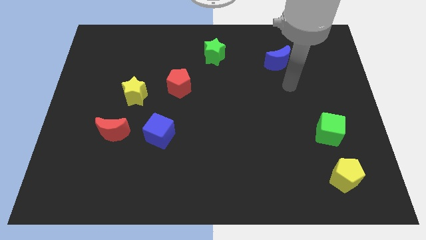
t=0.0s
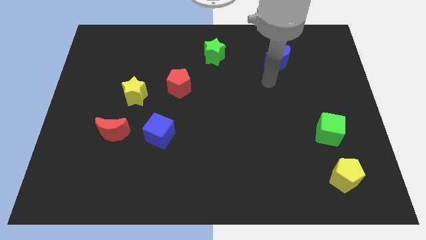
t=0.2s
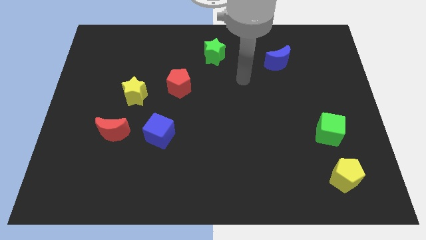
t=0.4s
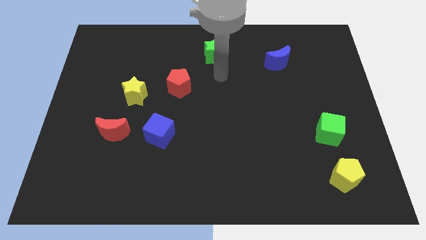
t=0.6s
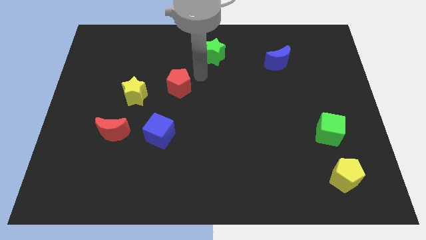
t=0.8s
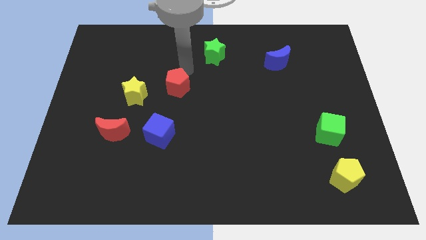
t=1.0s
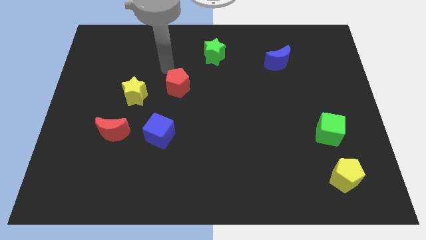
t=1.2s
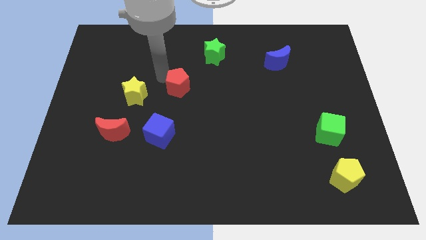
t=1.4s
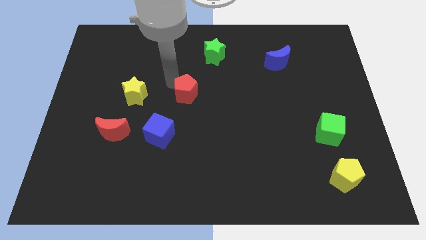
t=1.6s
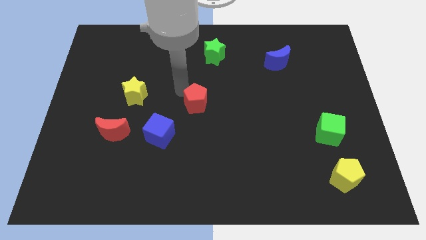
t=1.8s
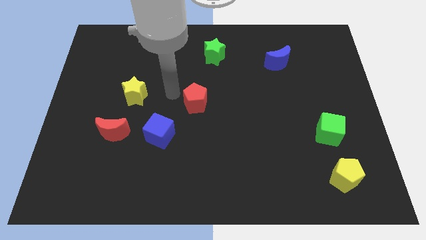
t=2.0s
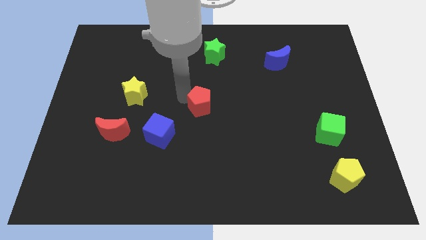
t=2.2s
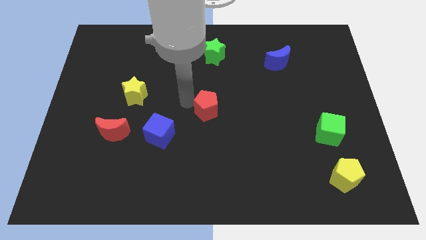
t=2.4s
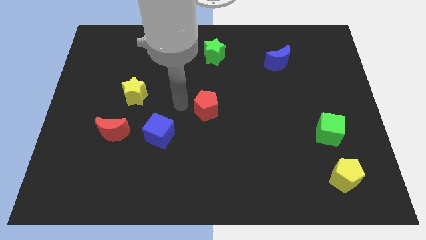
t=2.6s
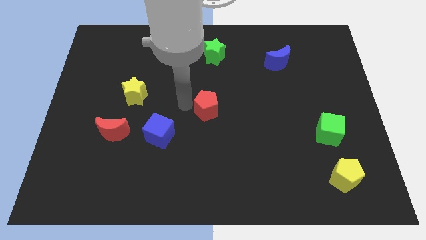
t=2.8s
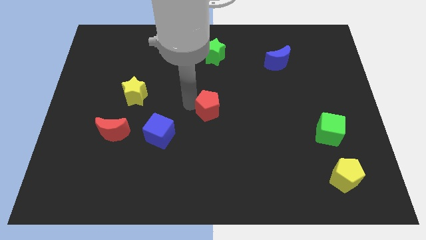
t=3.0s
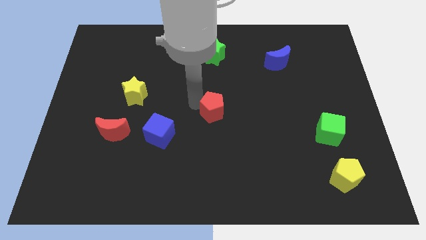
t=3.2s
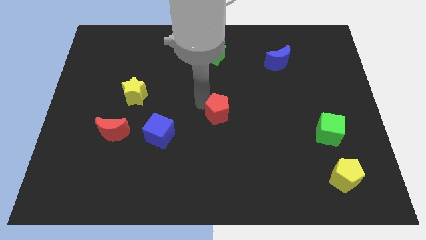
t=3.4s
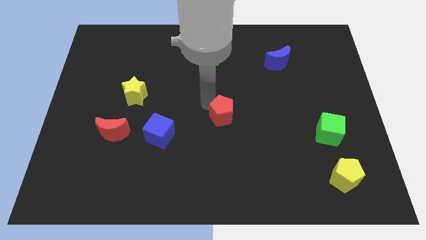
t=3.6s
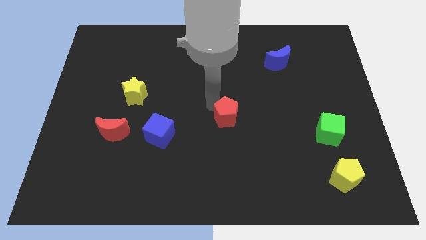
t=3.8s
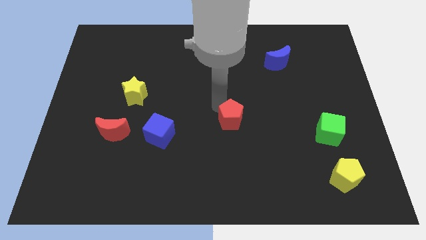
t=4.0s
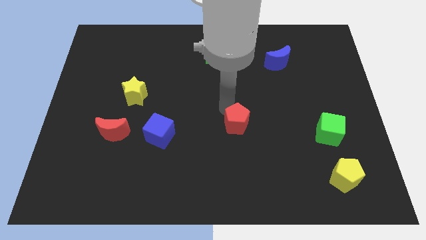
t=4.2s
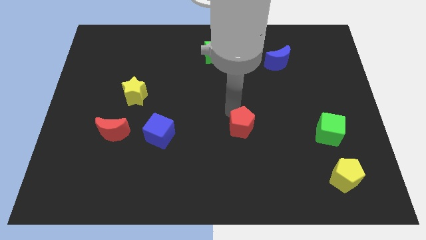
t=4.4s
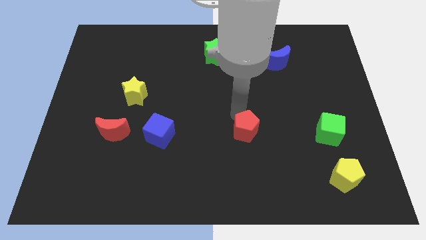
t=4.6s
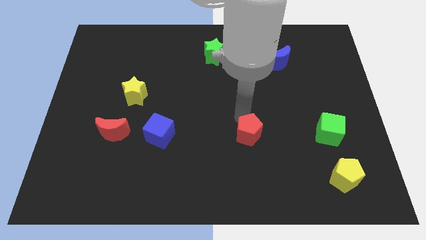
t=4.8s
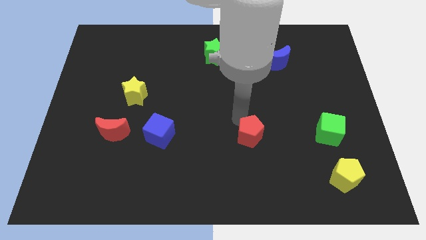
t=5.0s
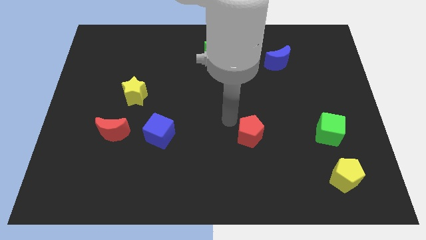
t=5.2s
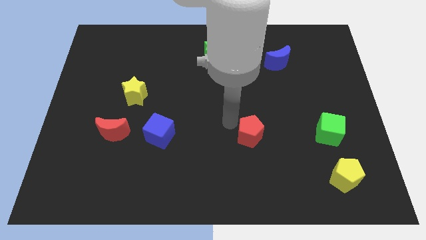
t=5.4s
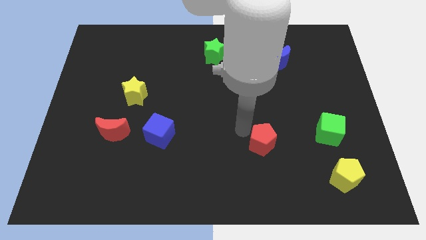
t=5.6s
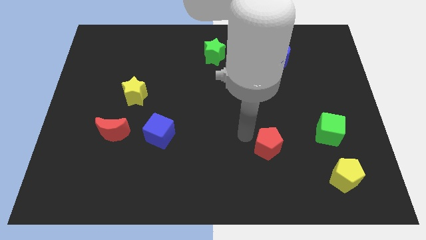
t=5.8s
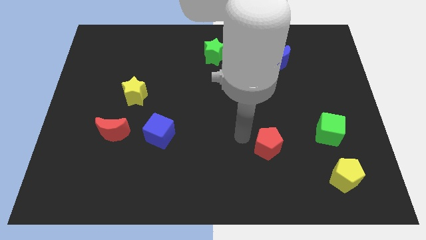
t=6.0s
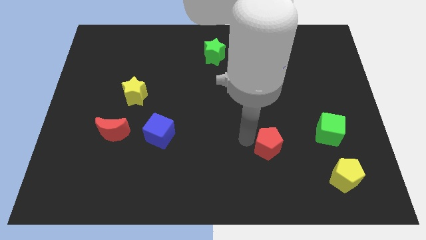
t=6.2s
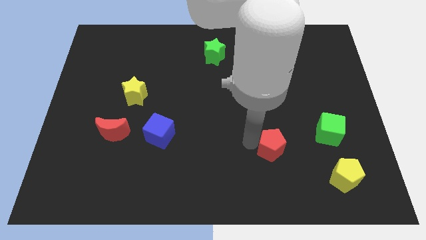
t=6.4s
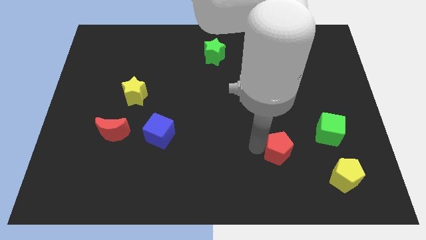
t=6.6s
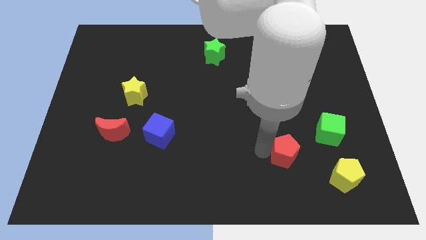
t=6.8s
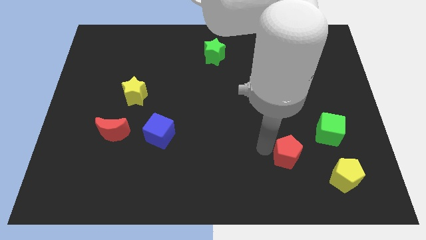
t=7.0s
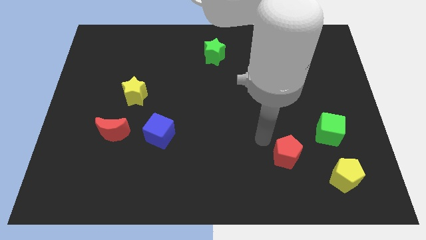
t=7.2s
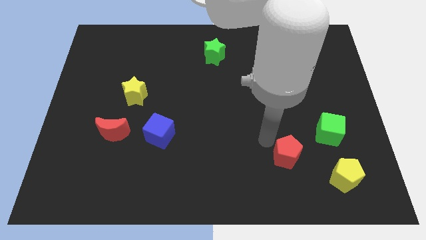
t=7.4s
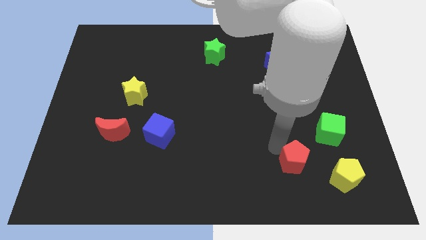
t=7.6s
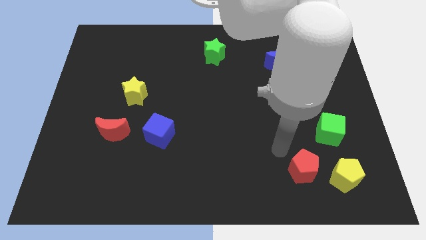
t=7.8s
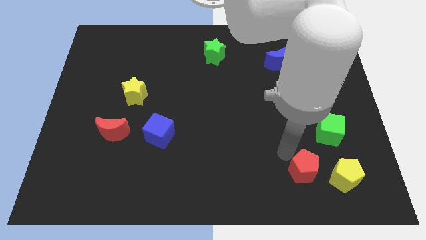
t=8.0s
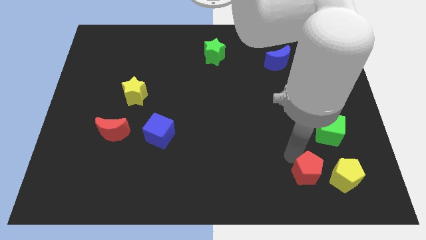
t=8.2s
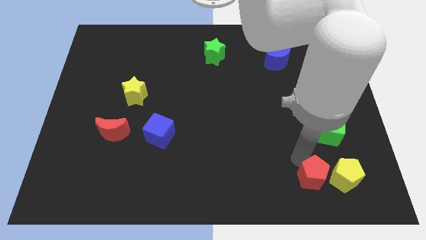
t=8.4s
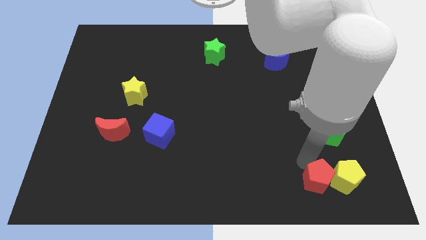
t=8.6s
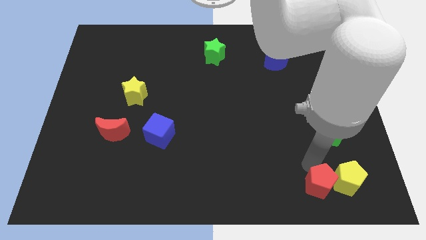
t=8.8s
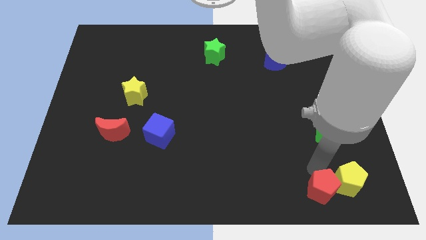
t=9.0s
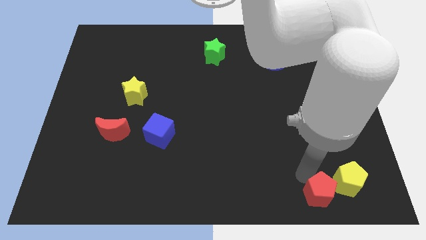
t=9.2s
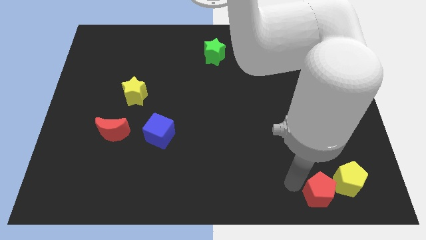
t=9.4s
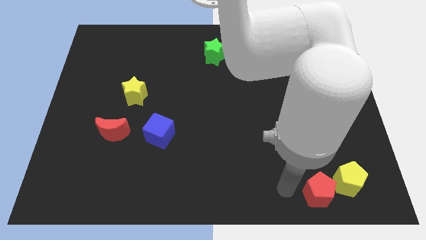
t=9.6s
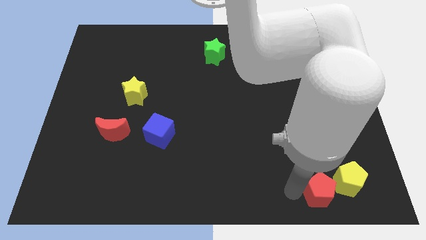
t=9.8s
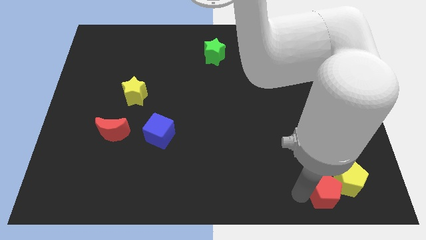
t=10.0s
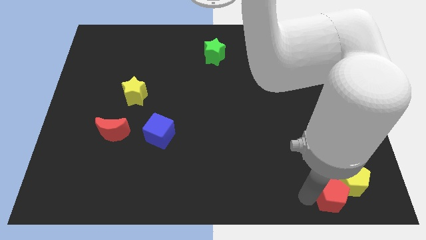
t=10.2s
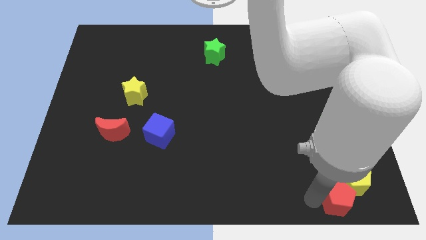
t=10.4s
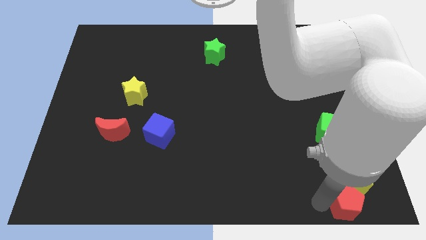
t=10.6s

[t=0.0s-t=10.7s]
push the red pentagon to the lower right corner

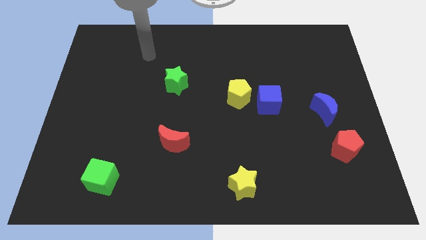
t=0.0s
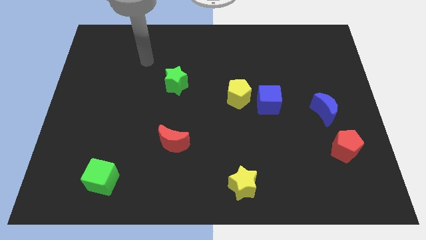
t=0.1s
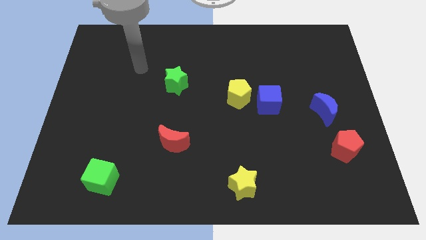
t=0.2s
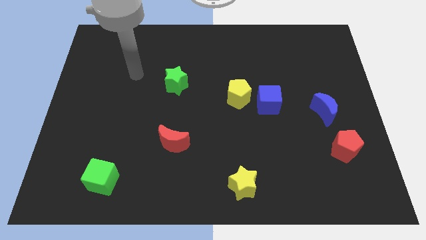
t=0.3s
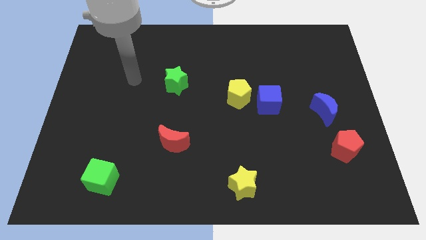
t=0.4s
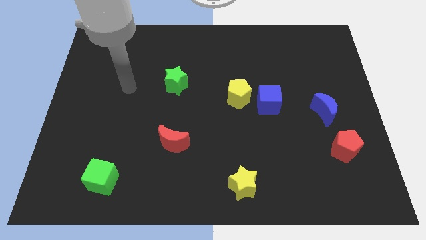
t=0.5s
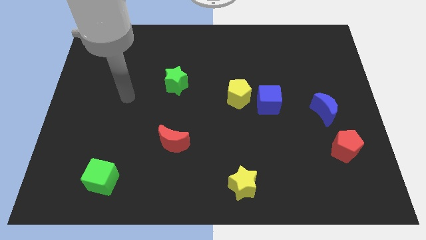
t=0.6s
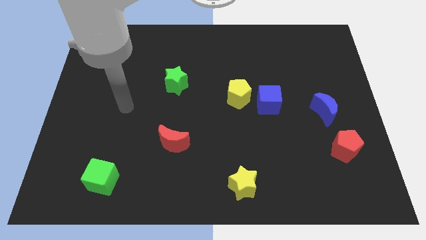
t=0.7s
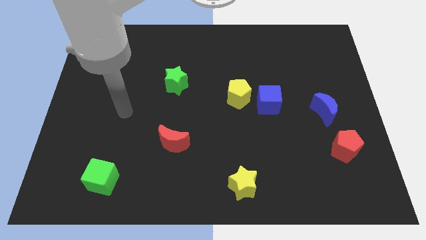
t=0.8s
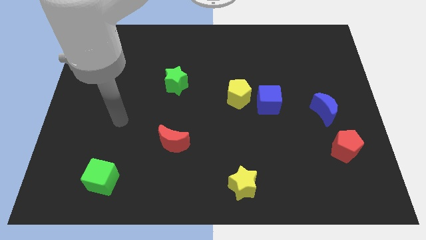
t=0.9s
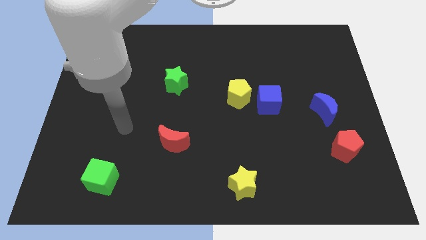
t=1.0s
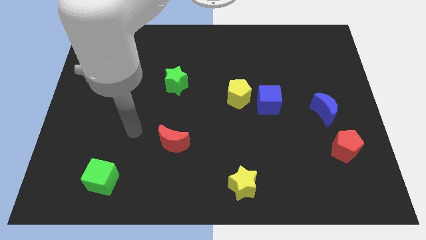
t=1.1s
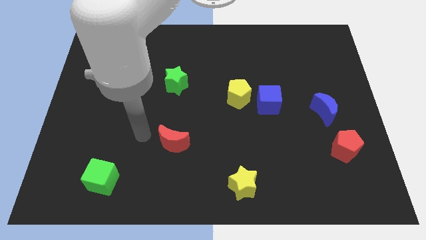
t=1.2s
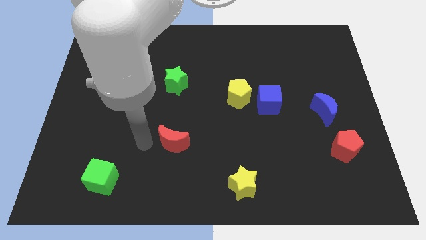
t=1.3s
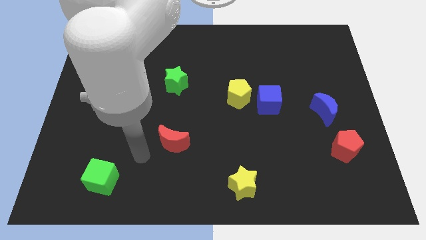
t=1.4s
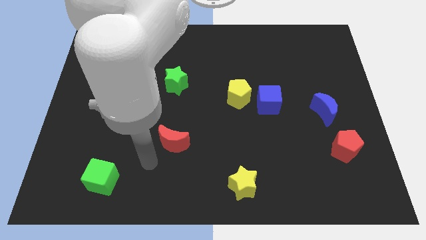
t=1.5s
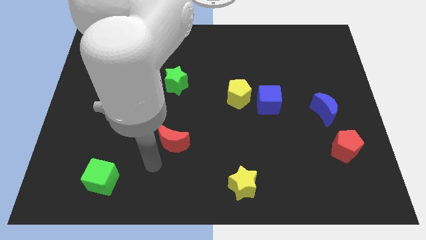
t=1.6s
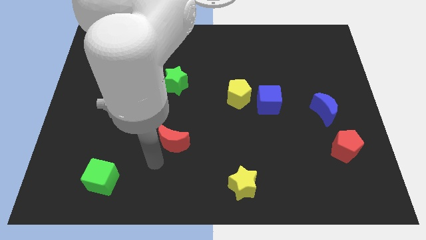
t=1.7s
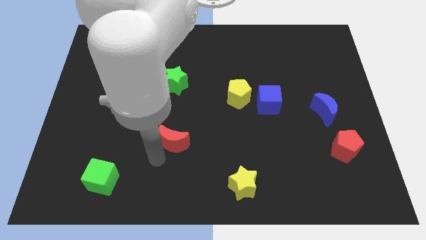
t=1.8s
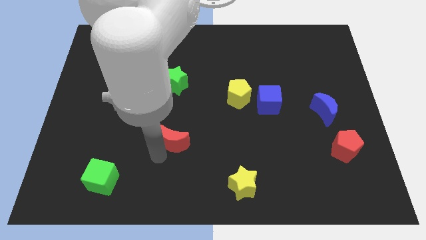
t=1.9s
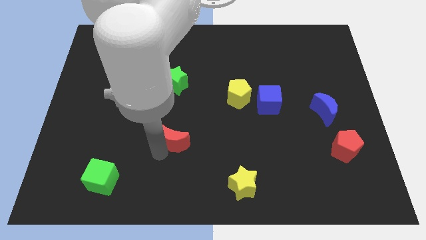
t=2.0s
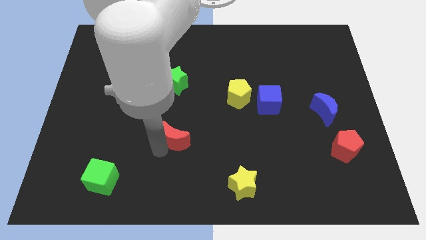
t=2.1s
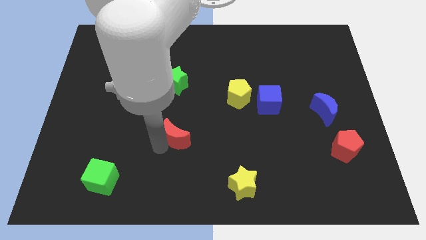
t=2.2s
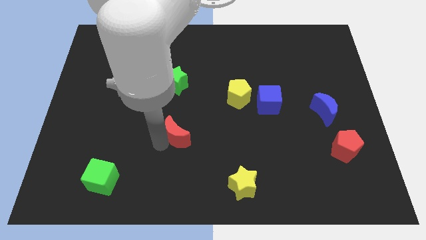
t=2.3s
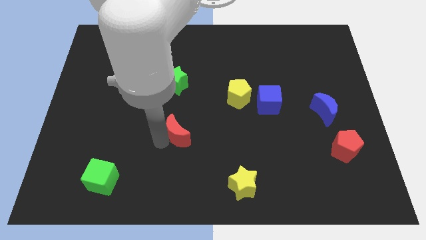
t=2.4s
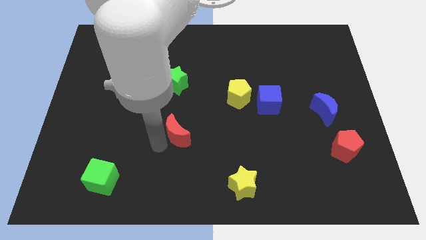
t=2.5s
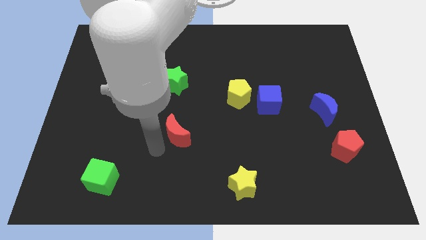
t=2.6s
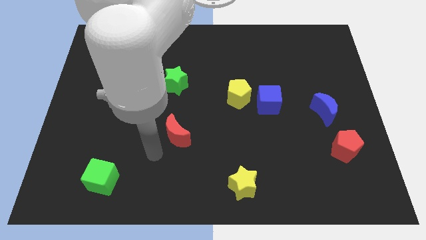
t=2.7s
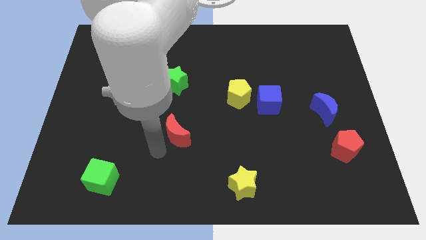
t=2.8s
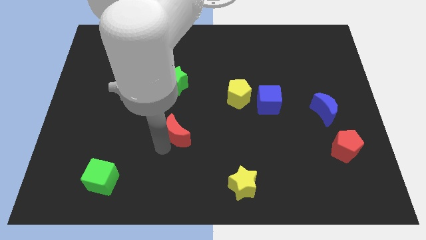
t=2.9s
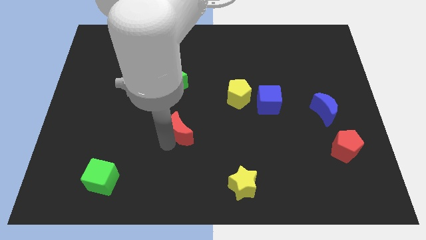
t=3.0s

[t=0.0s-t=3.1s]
push the red moon to the middle
